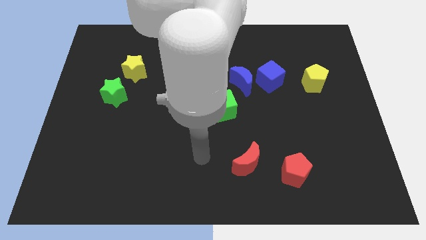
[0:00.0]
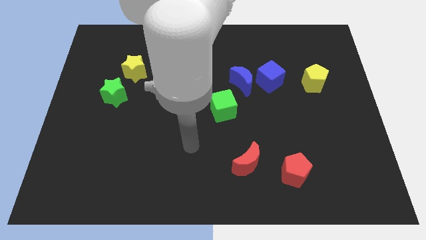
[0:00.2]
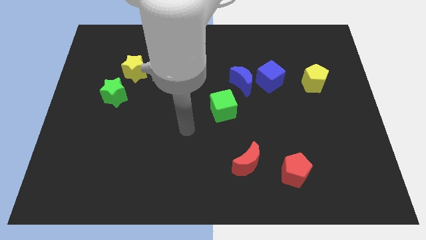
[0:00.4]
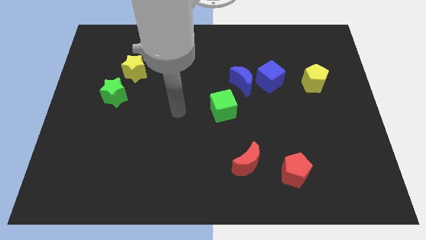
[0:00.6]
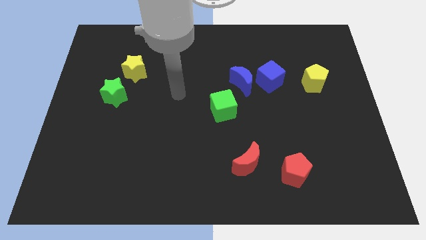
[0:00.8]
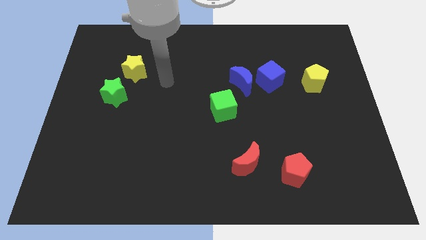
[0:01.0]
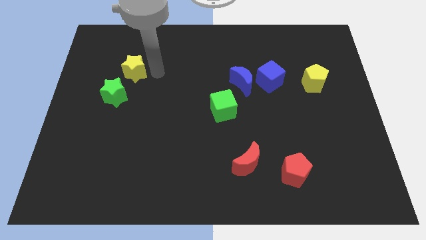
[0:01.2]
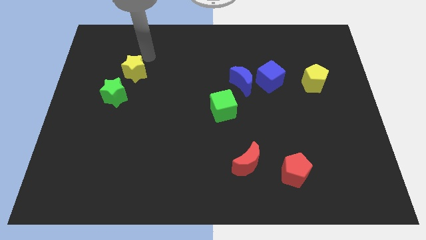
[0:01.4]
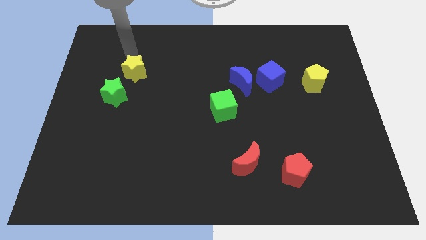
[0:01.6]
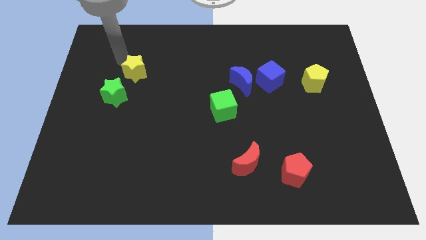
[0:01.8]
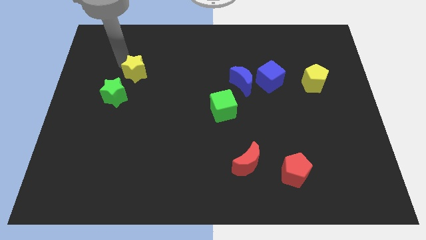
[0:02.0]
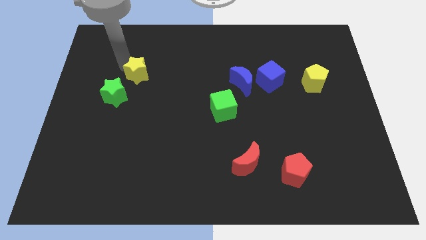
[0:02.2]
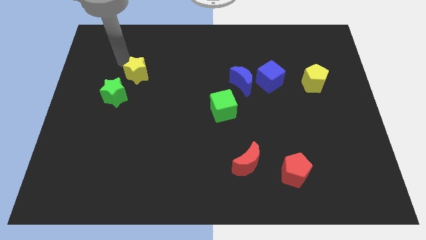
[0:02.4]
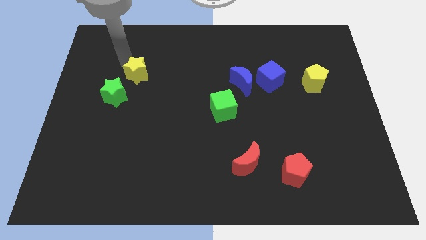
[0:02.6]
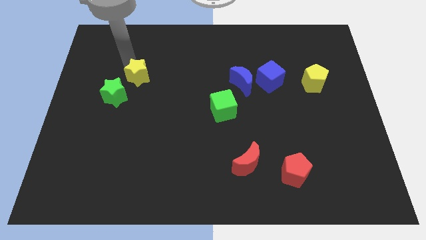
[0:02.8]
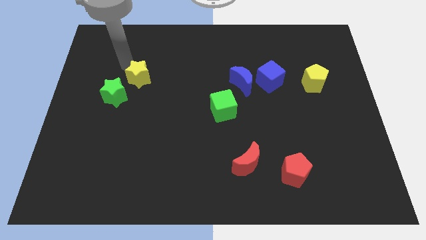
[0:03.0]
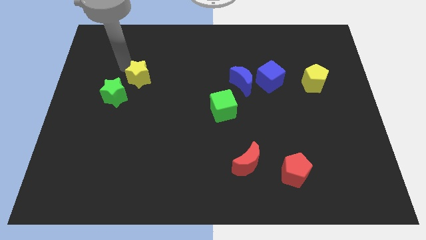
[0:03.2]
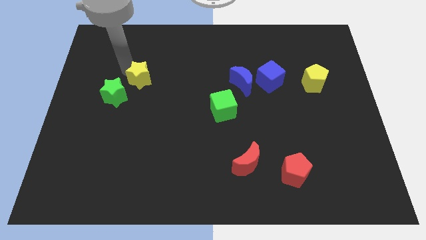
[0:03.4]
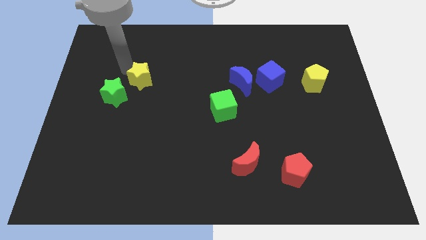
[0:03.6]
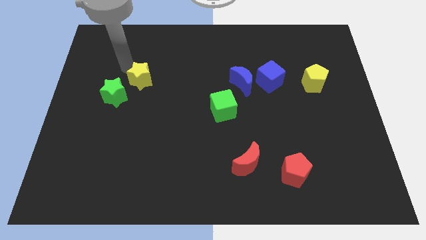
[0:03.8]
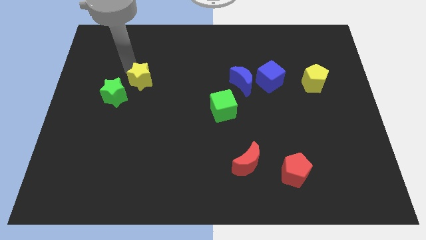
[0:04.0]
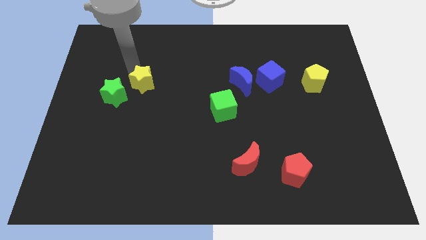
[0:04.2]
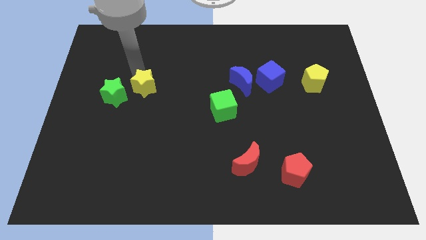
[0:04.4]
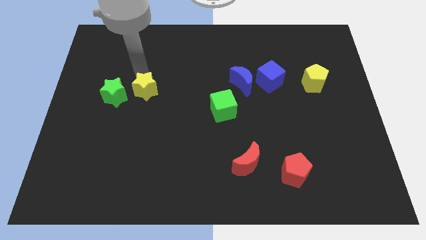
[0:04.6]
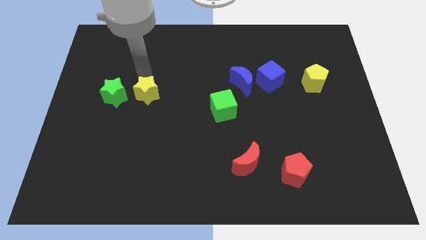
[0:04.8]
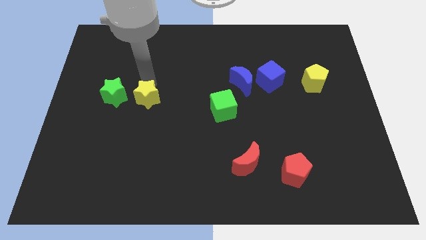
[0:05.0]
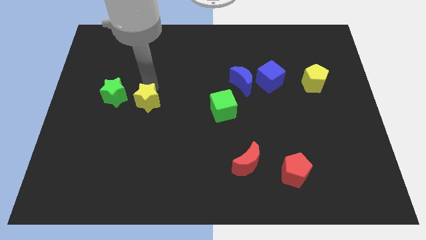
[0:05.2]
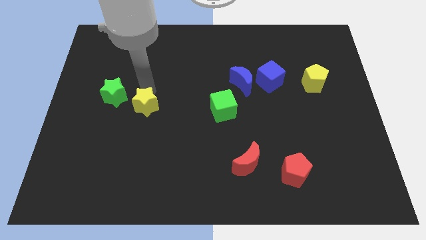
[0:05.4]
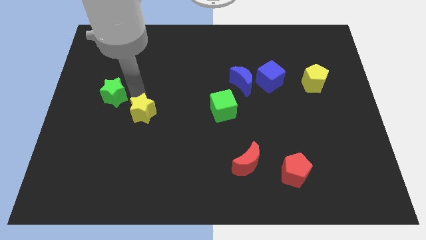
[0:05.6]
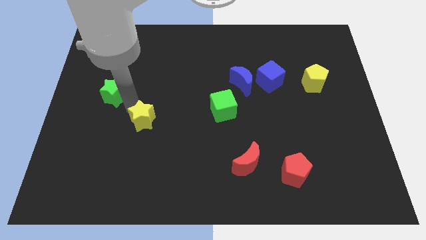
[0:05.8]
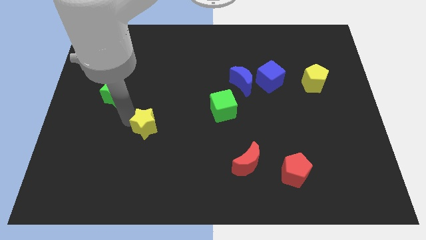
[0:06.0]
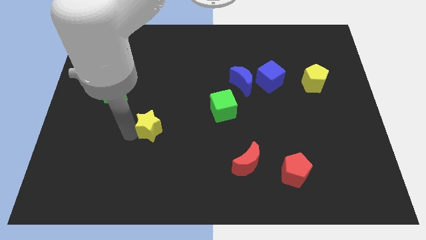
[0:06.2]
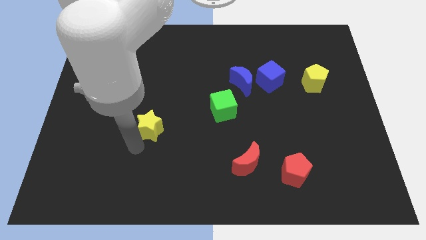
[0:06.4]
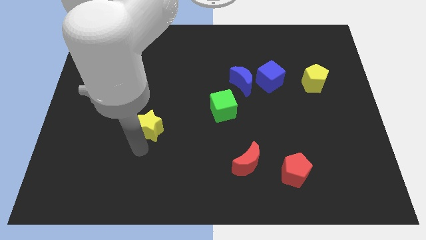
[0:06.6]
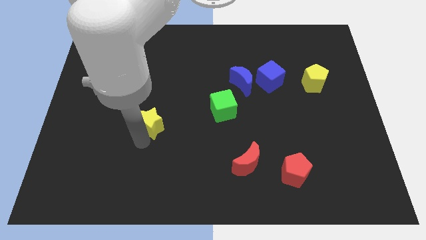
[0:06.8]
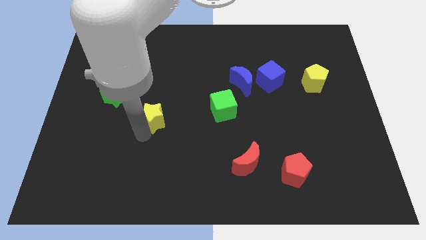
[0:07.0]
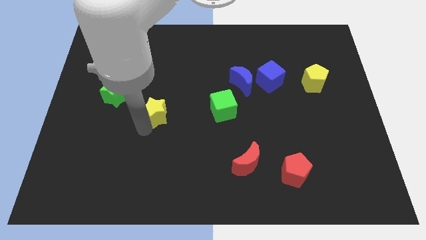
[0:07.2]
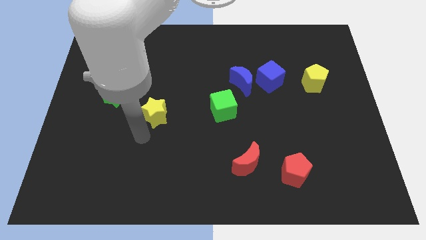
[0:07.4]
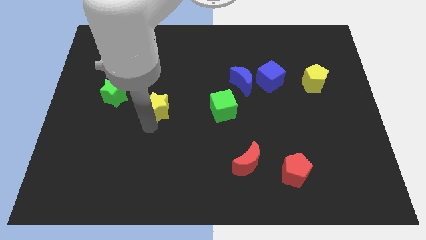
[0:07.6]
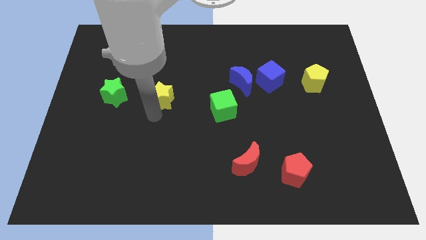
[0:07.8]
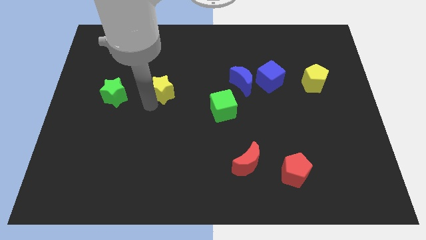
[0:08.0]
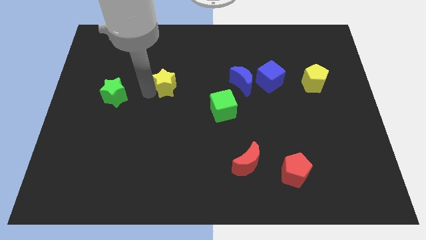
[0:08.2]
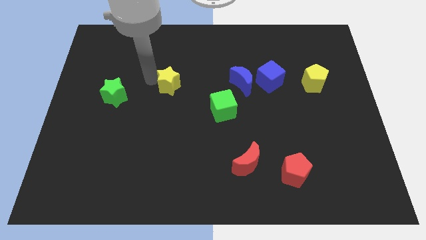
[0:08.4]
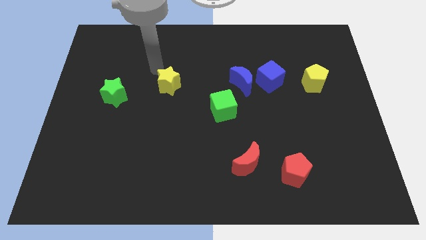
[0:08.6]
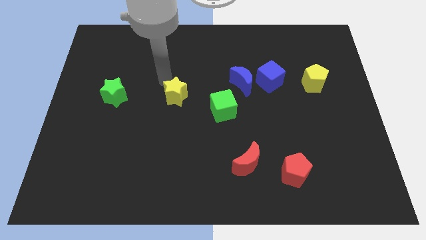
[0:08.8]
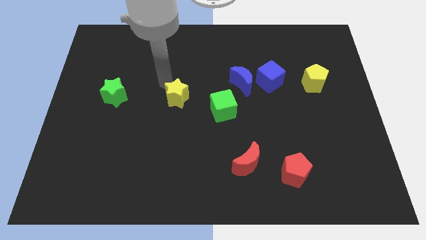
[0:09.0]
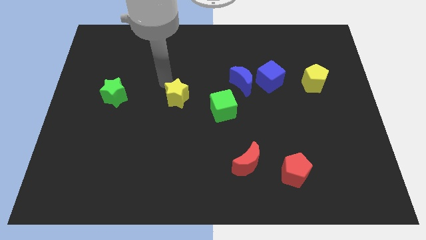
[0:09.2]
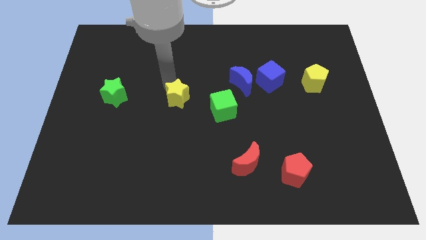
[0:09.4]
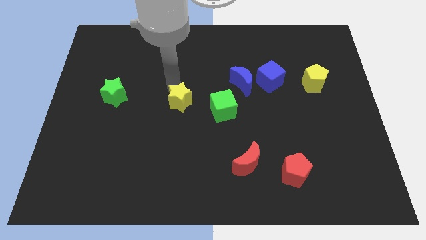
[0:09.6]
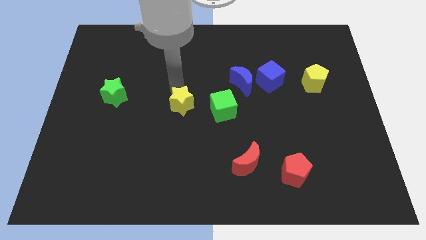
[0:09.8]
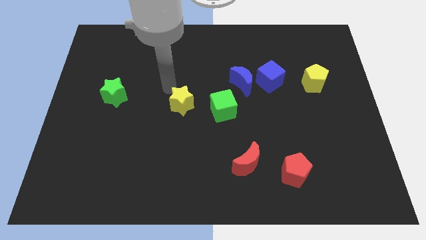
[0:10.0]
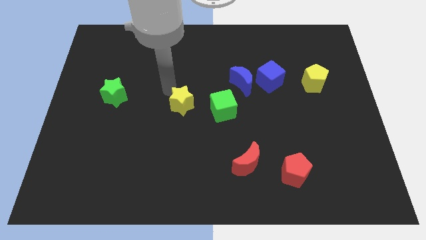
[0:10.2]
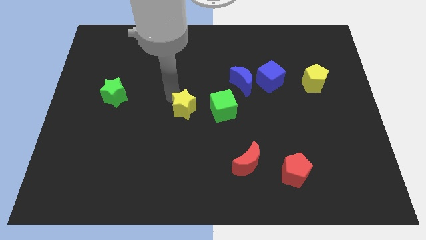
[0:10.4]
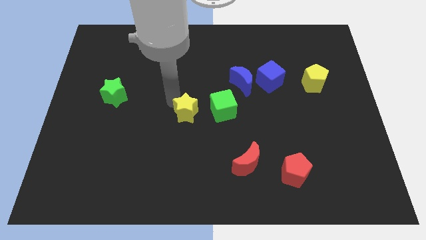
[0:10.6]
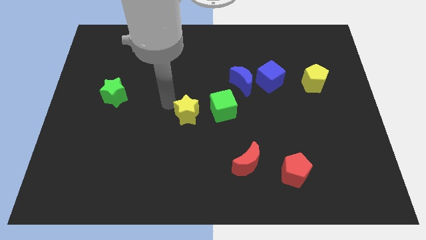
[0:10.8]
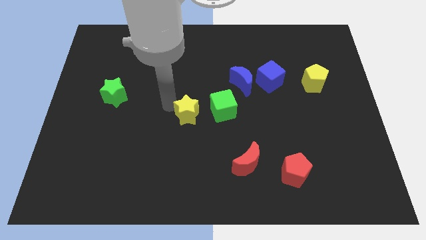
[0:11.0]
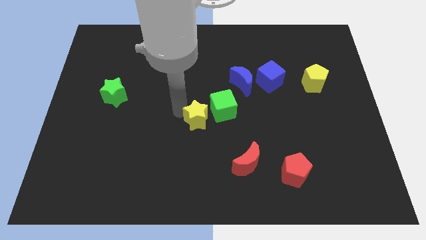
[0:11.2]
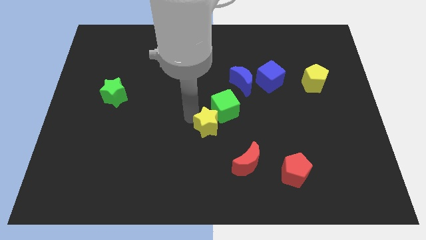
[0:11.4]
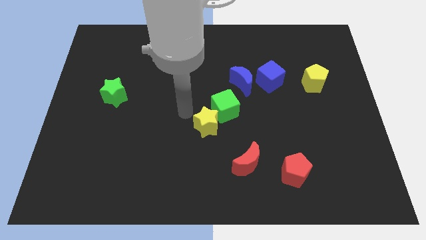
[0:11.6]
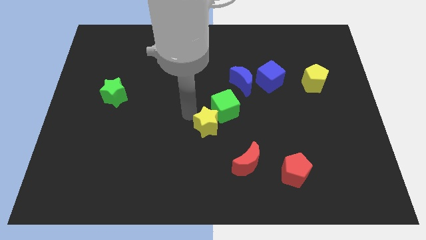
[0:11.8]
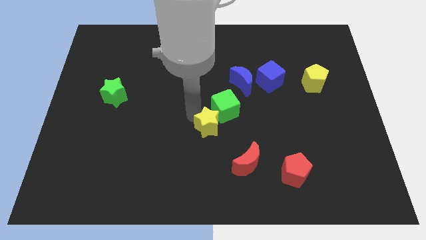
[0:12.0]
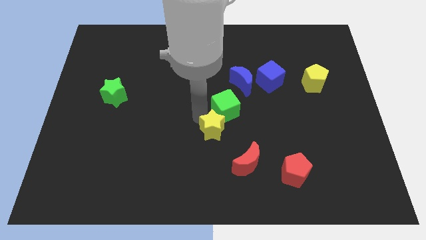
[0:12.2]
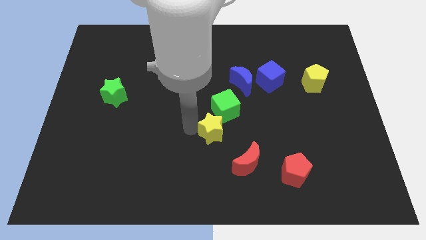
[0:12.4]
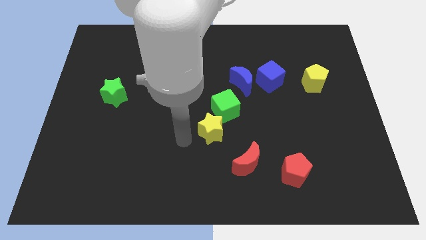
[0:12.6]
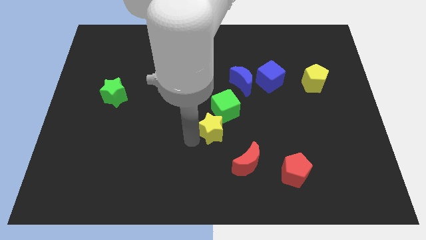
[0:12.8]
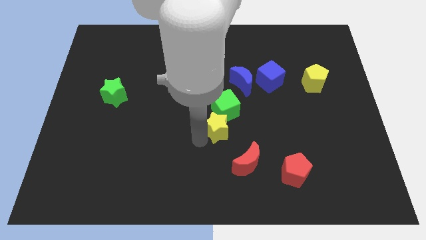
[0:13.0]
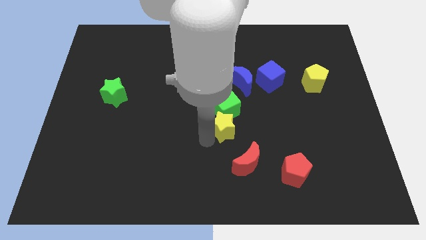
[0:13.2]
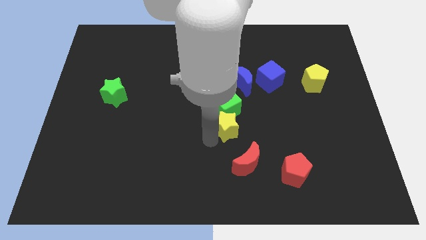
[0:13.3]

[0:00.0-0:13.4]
push the yellow star above the red moon

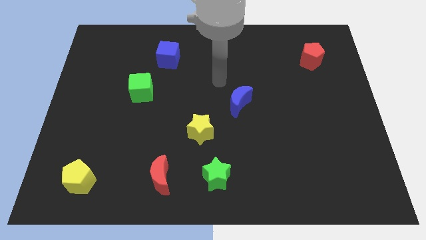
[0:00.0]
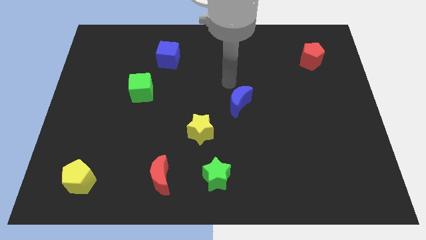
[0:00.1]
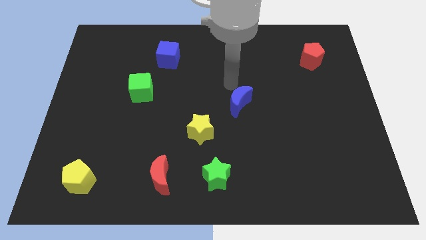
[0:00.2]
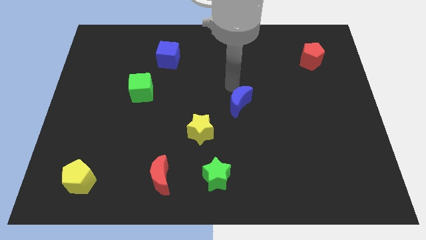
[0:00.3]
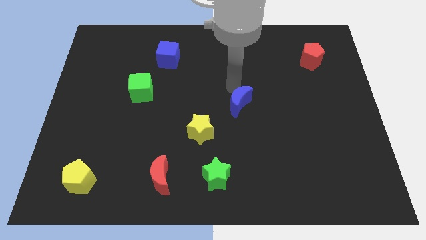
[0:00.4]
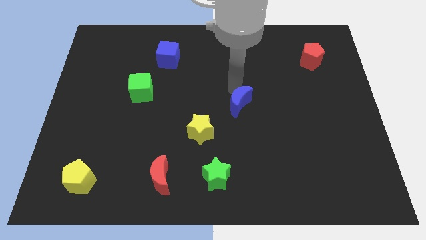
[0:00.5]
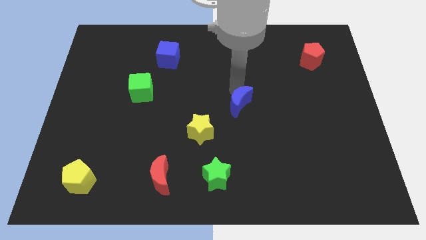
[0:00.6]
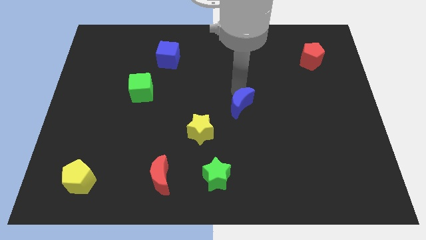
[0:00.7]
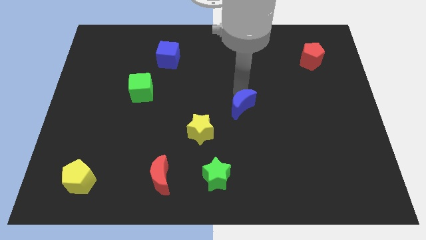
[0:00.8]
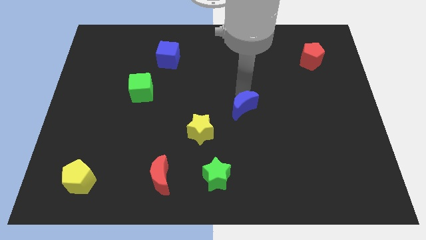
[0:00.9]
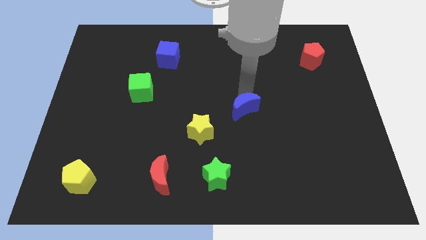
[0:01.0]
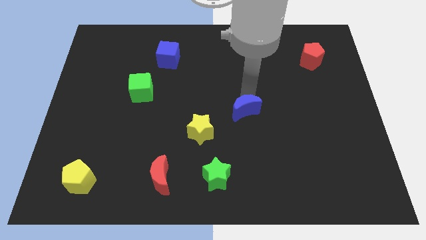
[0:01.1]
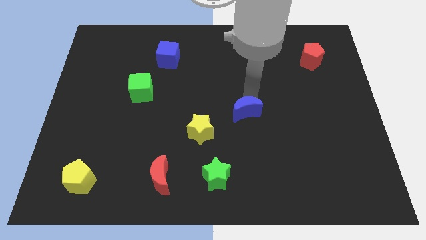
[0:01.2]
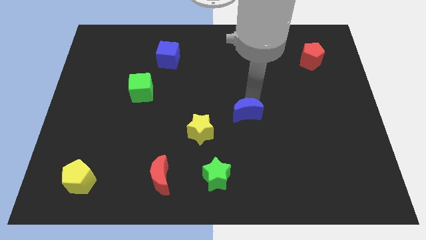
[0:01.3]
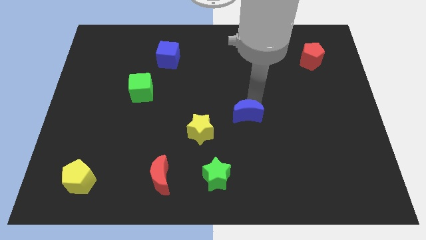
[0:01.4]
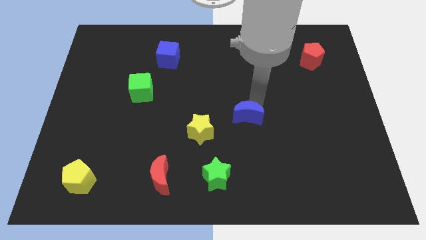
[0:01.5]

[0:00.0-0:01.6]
put the blue moon to the right of the yellow star
